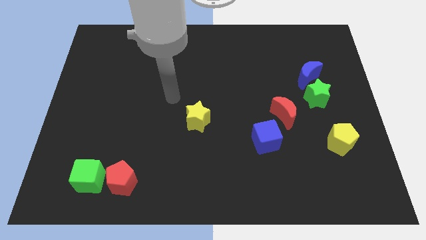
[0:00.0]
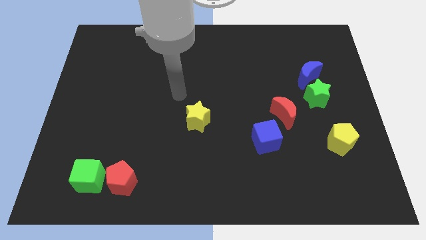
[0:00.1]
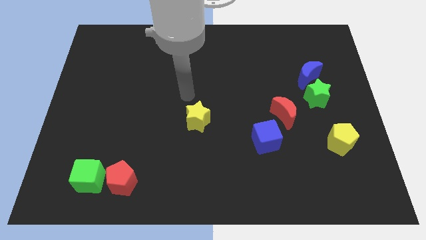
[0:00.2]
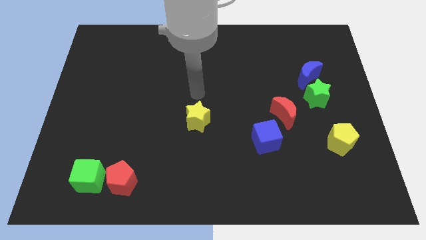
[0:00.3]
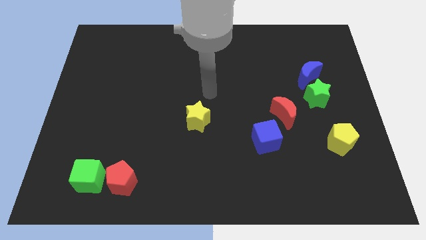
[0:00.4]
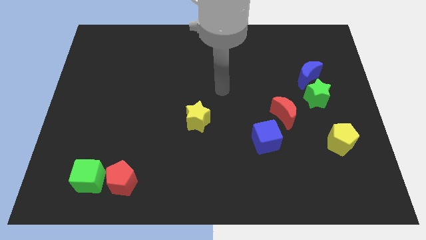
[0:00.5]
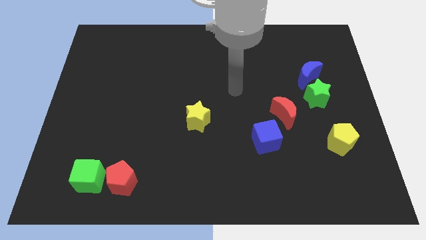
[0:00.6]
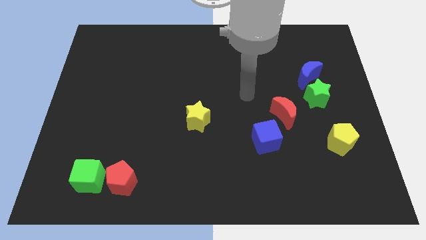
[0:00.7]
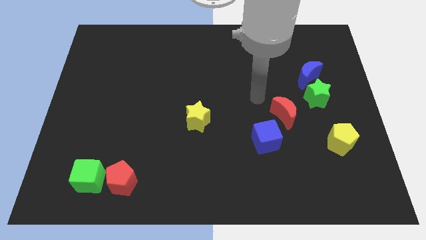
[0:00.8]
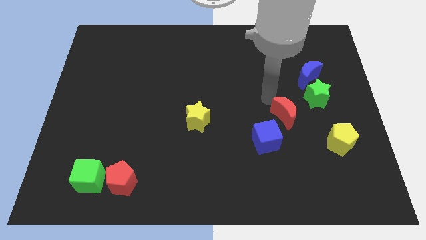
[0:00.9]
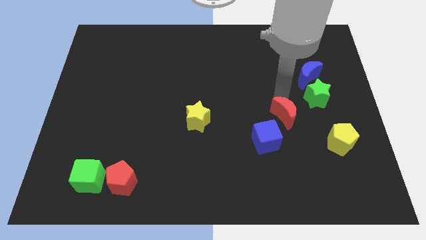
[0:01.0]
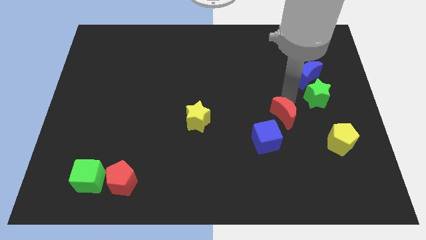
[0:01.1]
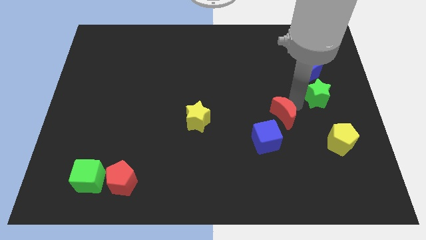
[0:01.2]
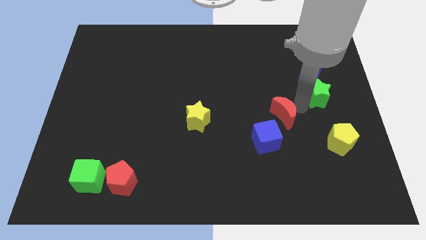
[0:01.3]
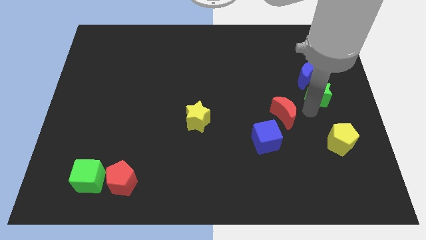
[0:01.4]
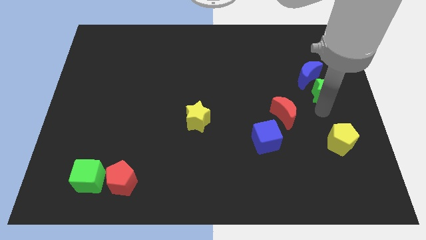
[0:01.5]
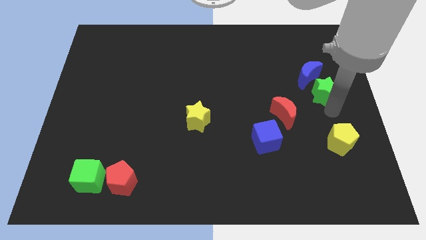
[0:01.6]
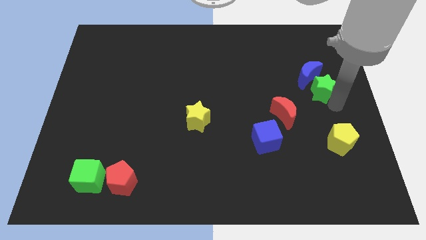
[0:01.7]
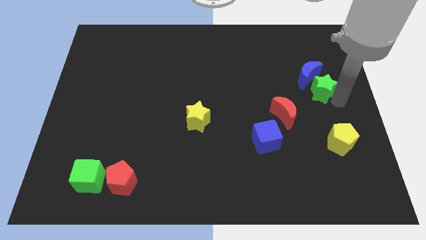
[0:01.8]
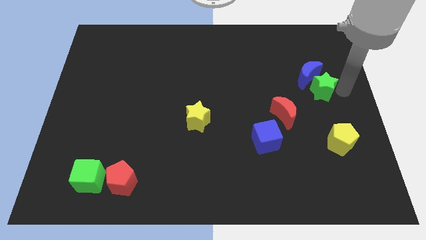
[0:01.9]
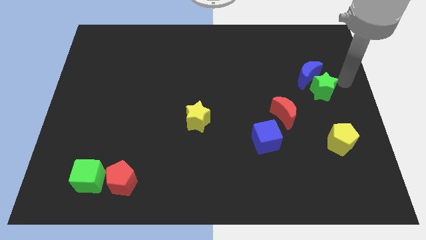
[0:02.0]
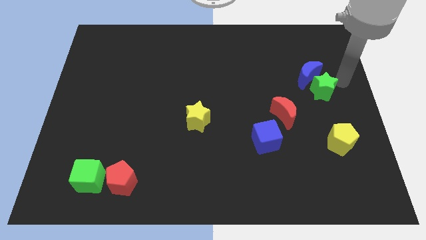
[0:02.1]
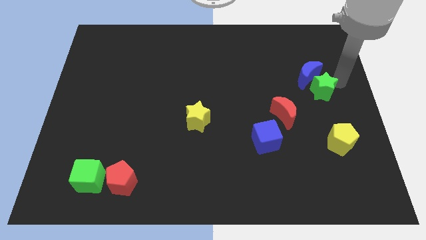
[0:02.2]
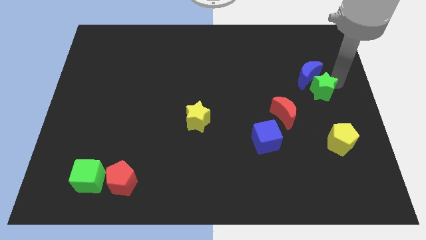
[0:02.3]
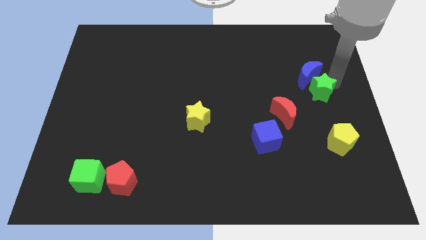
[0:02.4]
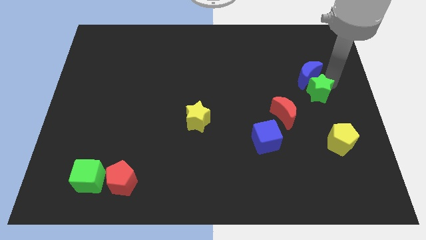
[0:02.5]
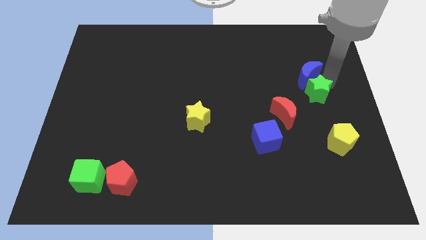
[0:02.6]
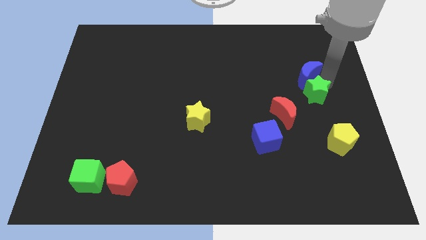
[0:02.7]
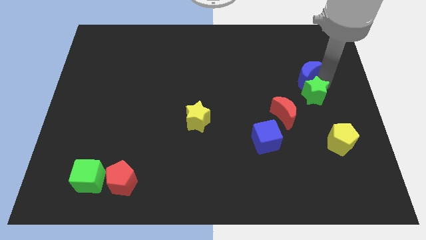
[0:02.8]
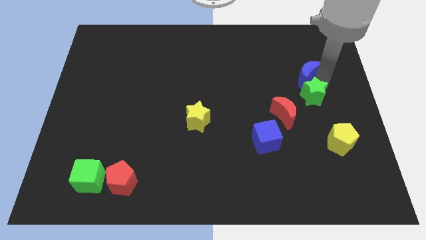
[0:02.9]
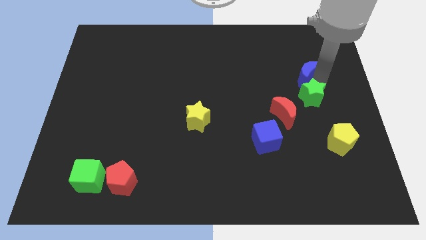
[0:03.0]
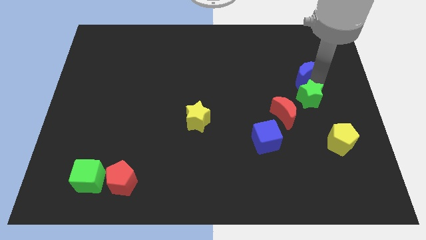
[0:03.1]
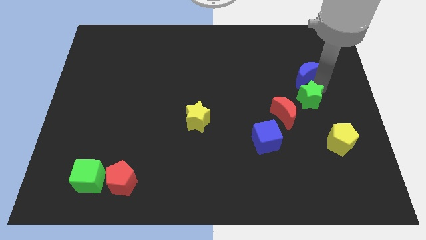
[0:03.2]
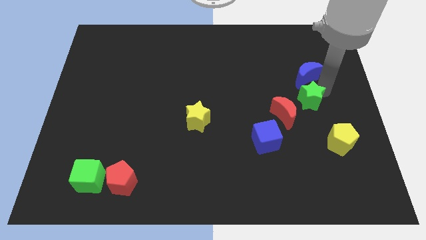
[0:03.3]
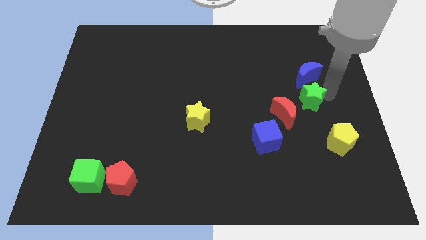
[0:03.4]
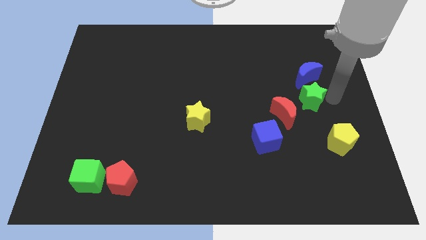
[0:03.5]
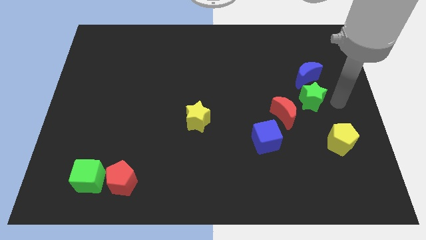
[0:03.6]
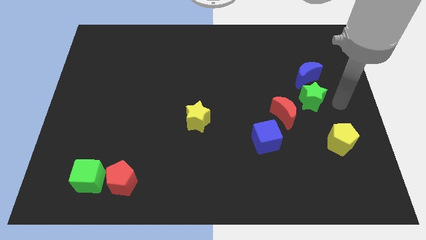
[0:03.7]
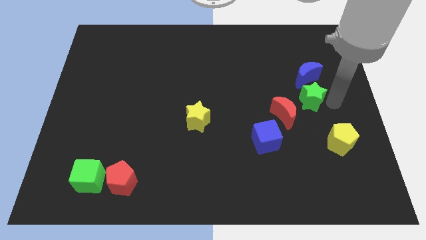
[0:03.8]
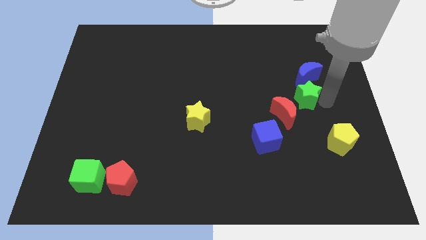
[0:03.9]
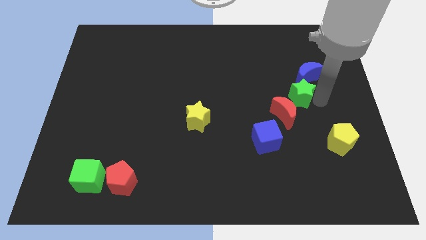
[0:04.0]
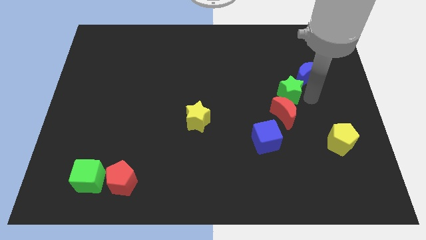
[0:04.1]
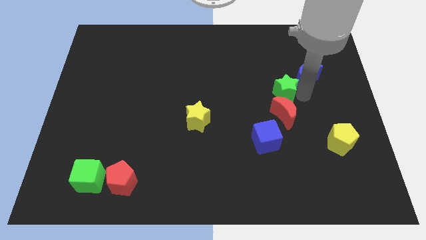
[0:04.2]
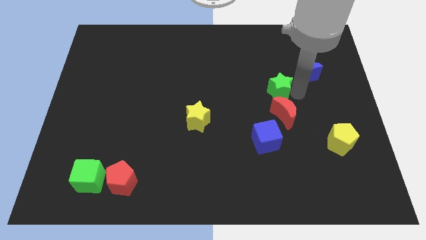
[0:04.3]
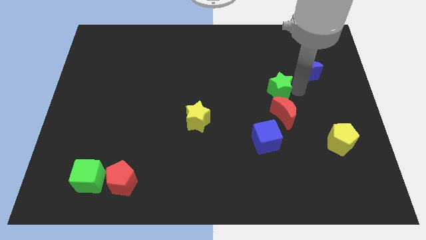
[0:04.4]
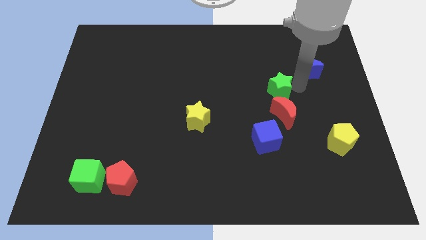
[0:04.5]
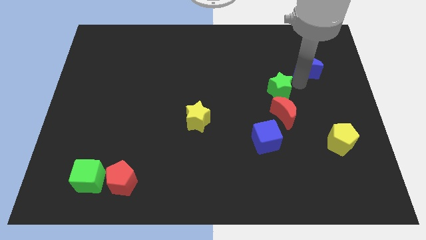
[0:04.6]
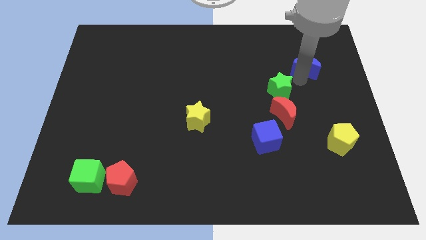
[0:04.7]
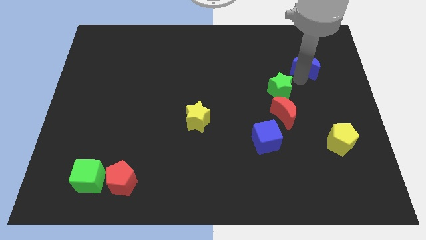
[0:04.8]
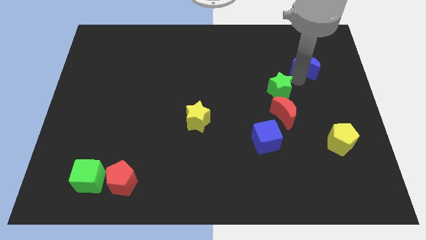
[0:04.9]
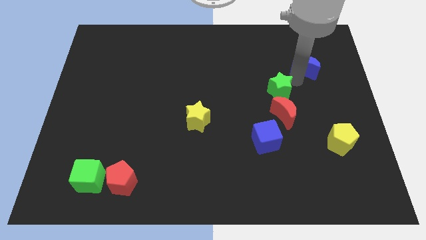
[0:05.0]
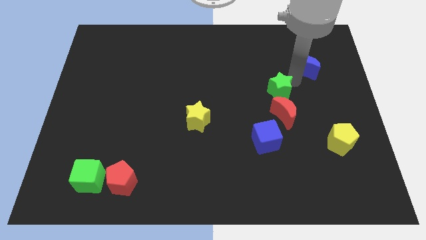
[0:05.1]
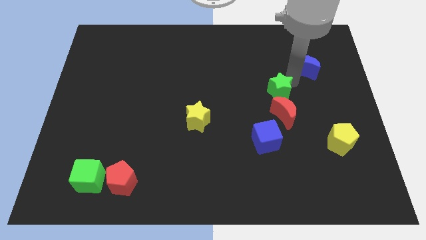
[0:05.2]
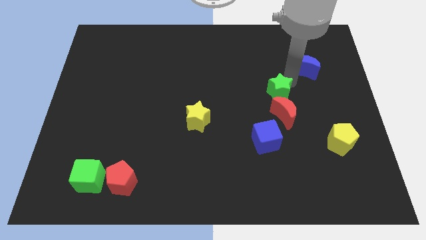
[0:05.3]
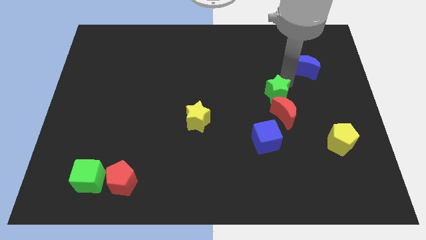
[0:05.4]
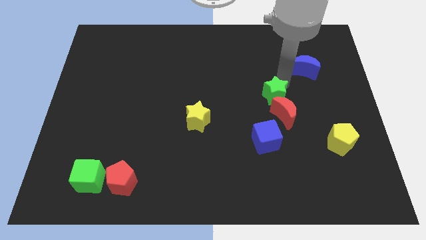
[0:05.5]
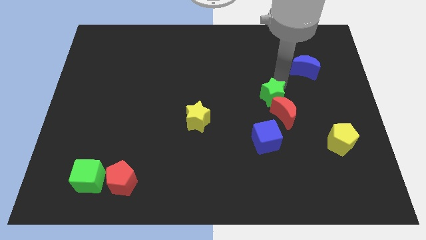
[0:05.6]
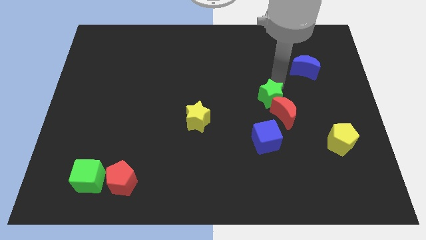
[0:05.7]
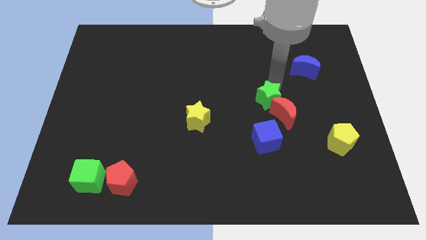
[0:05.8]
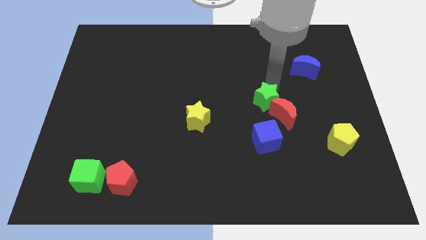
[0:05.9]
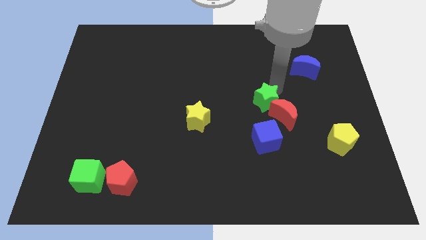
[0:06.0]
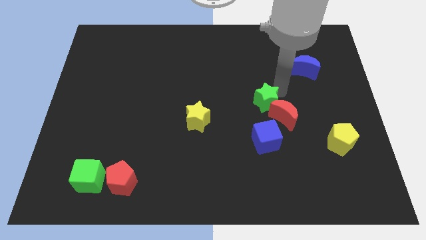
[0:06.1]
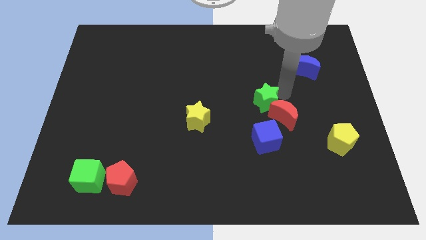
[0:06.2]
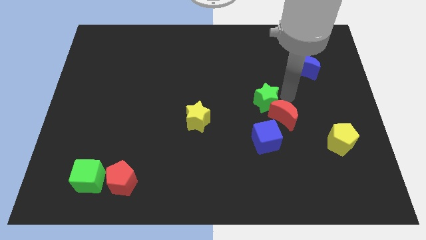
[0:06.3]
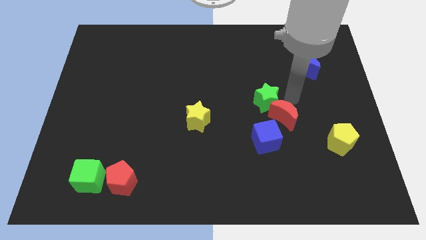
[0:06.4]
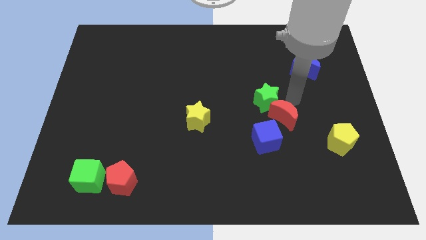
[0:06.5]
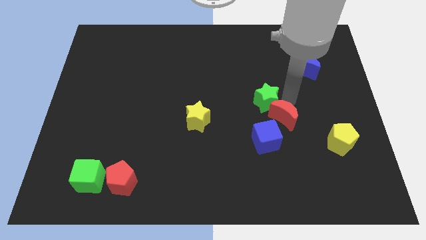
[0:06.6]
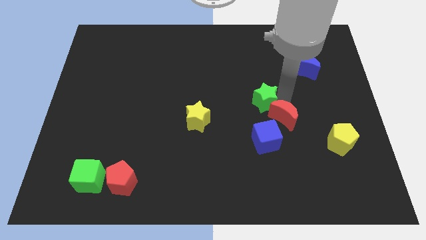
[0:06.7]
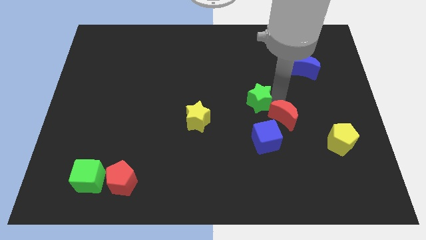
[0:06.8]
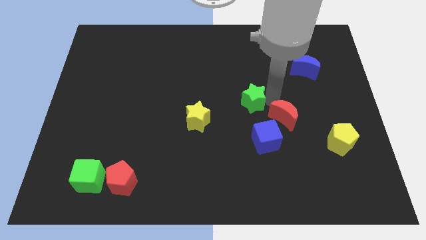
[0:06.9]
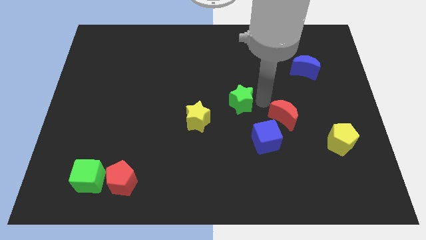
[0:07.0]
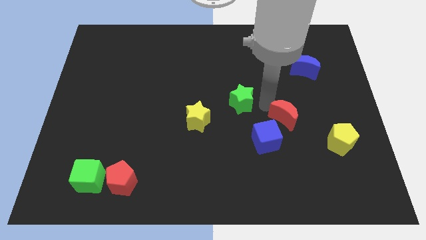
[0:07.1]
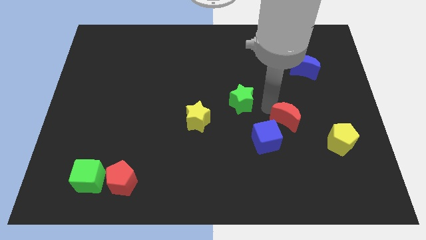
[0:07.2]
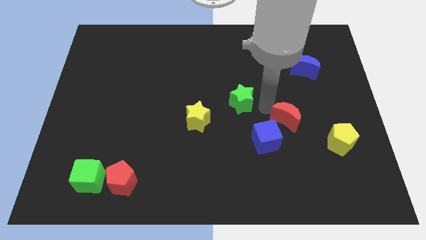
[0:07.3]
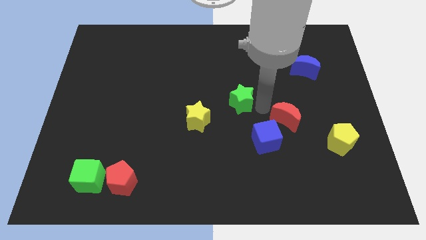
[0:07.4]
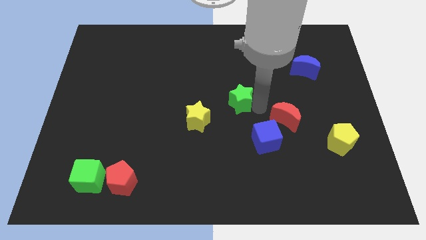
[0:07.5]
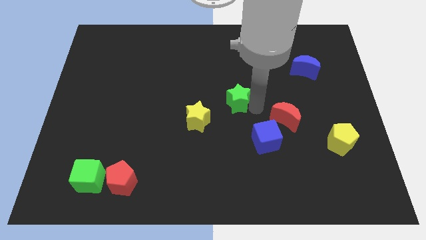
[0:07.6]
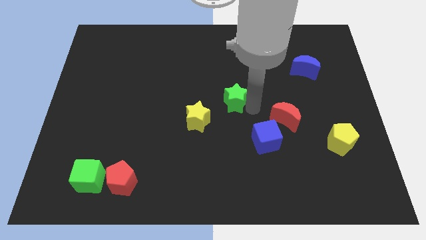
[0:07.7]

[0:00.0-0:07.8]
move the green star left
